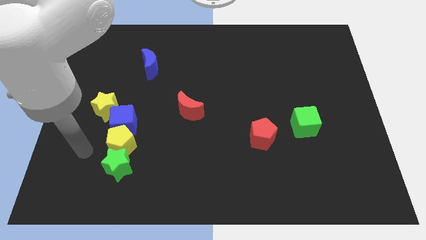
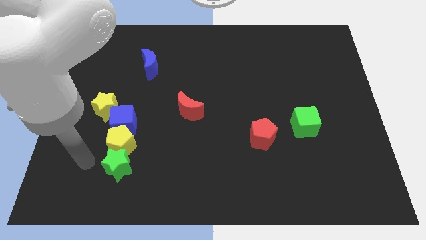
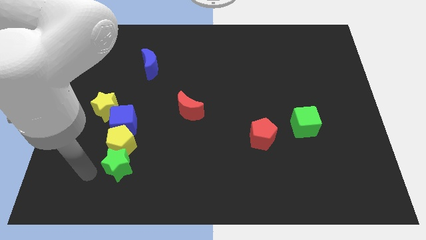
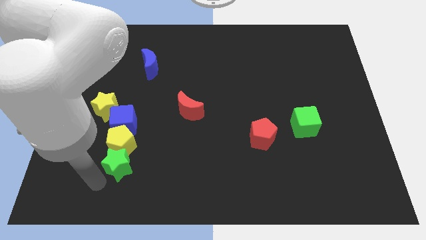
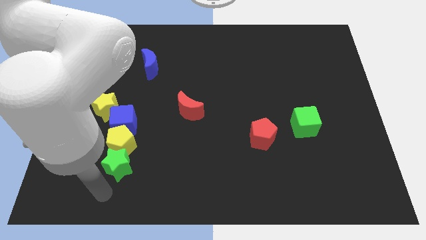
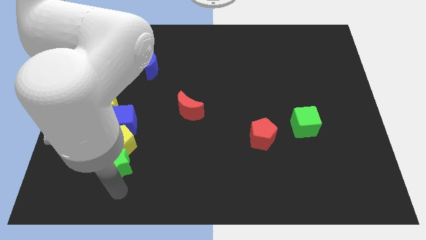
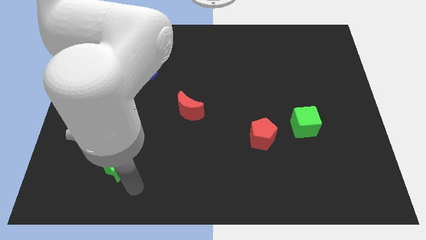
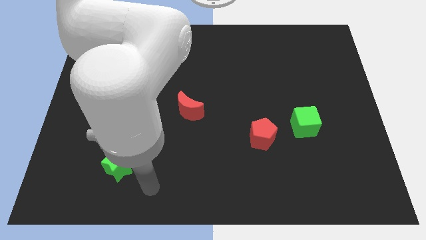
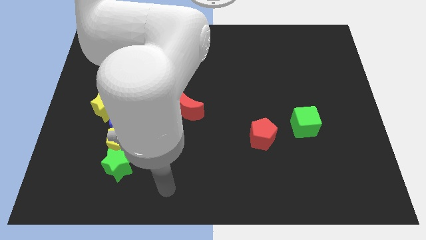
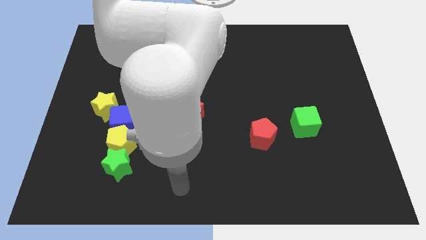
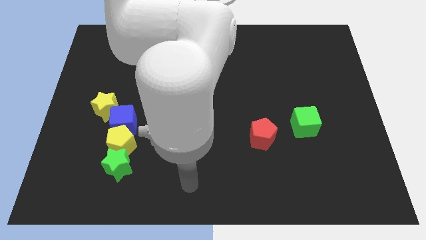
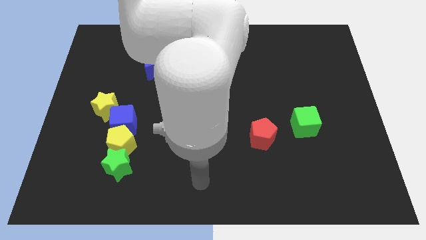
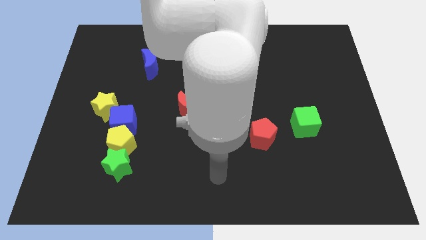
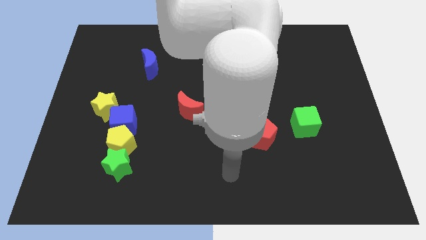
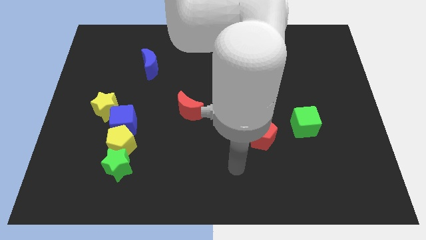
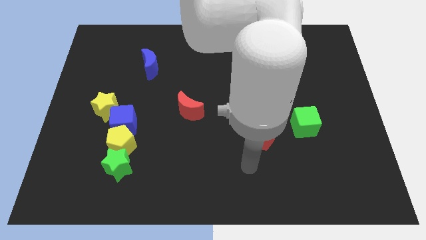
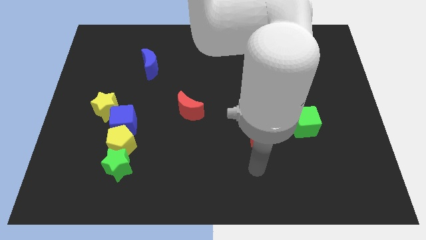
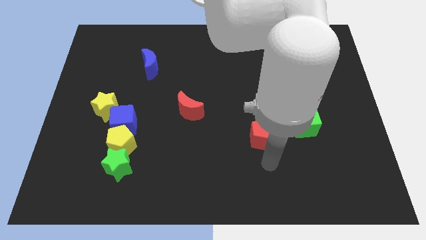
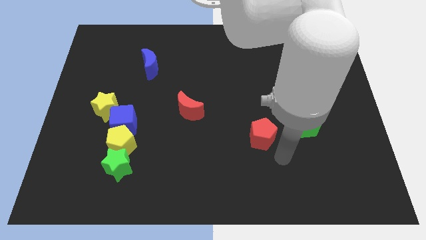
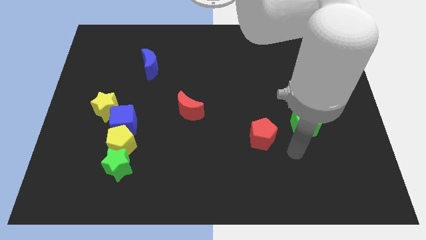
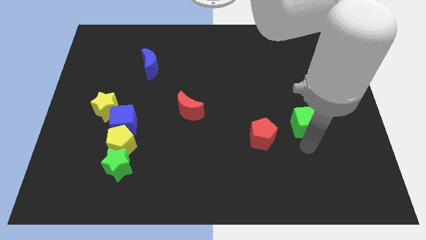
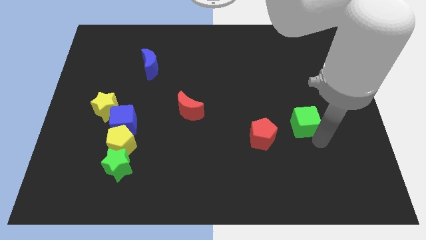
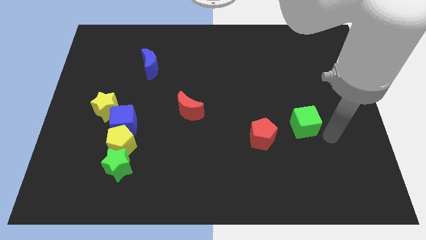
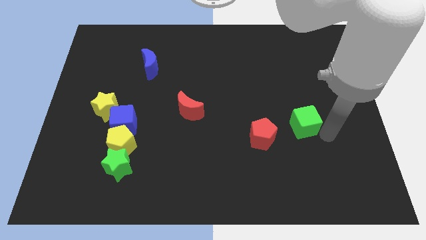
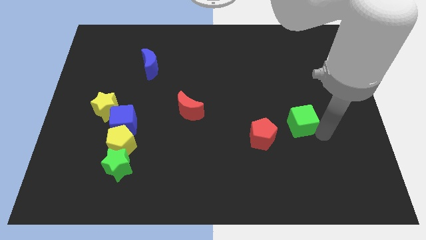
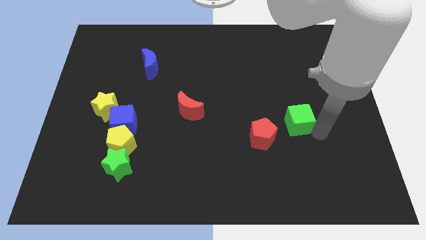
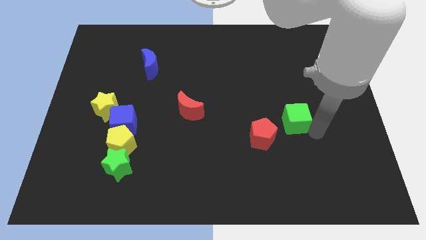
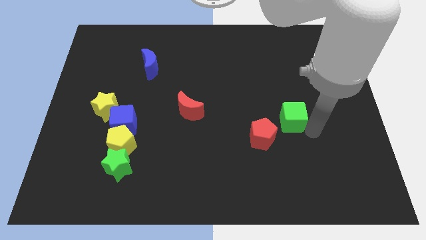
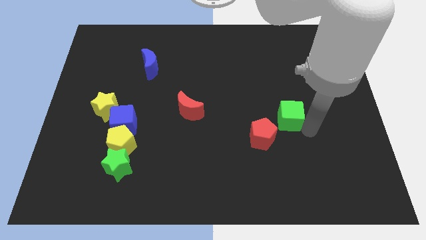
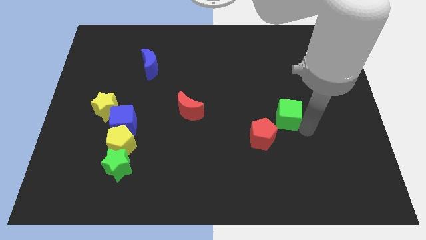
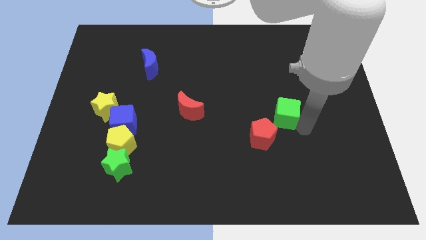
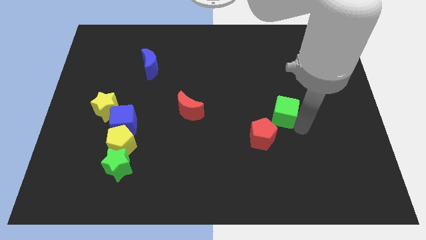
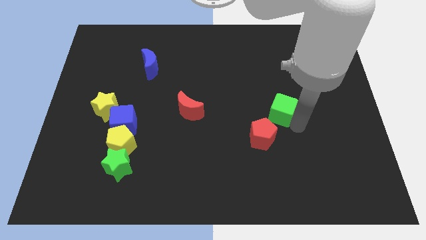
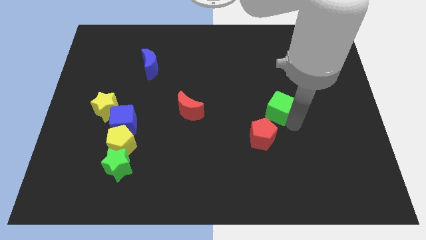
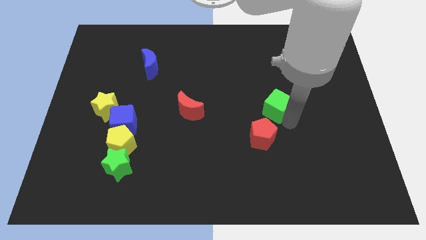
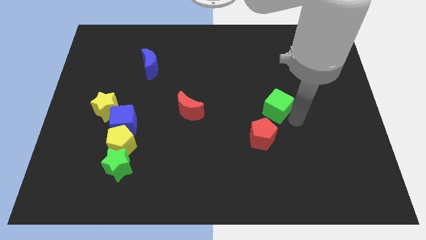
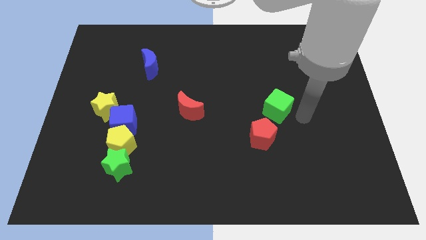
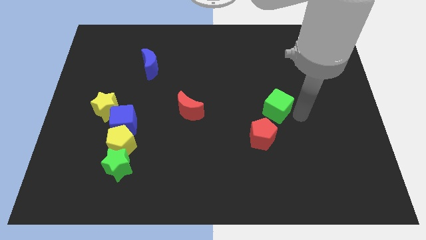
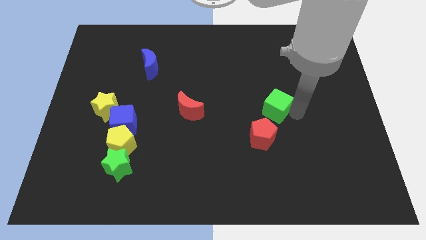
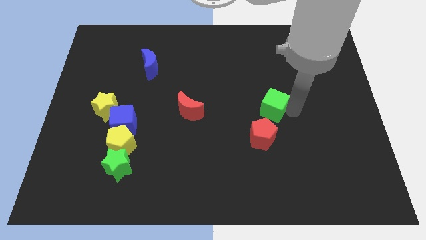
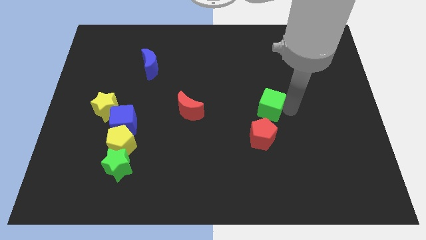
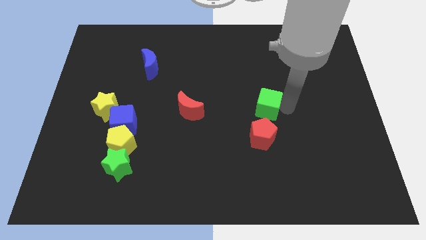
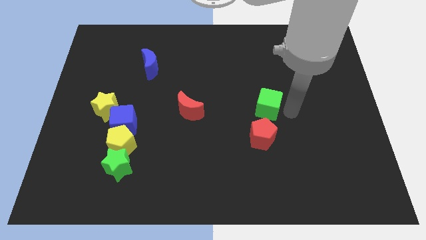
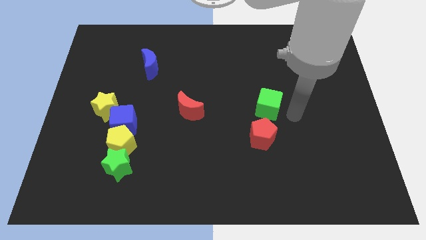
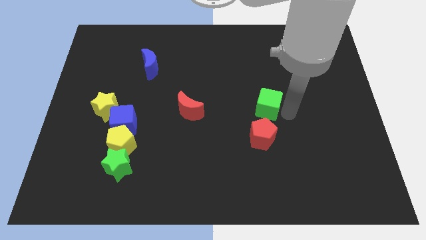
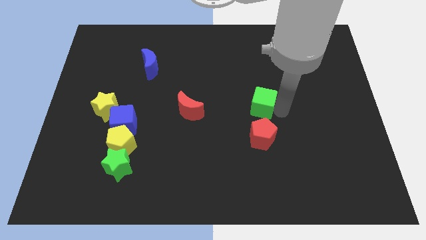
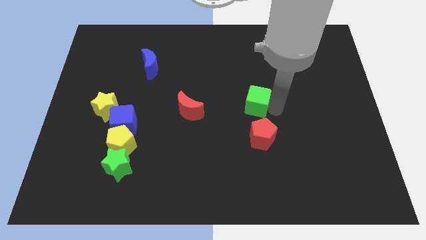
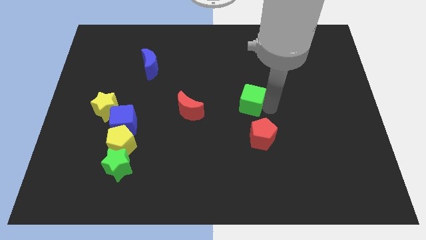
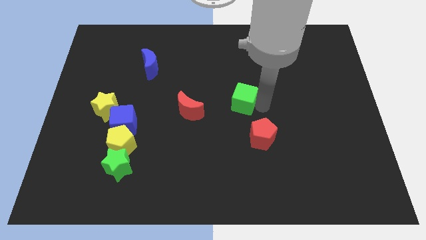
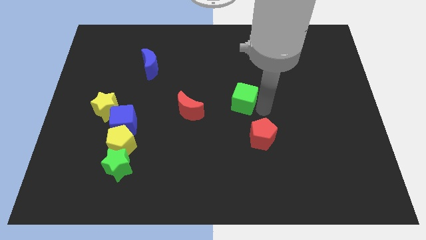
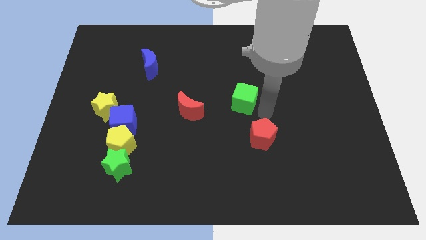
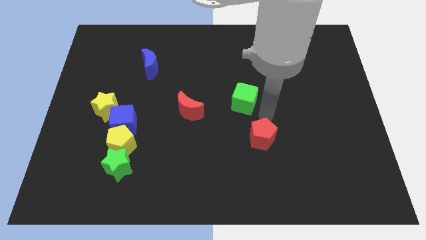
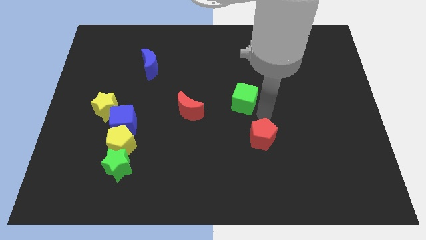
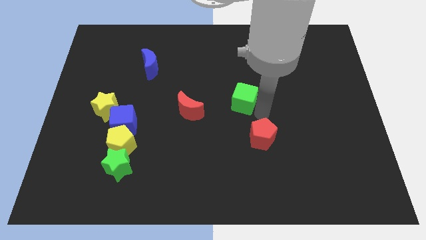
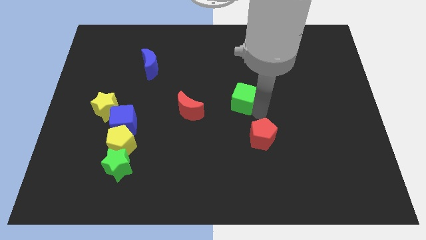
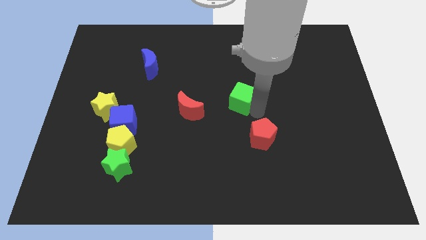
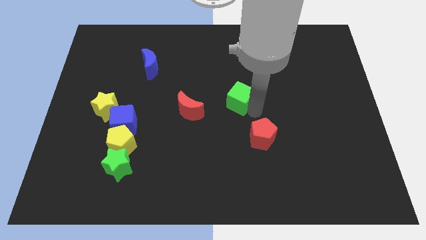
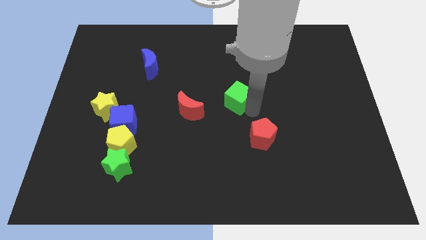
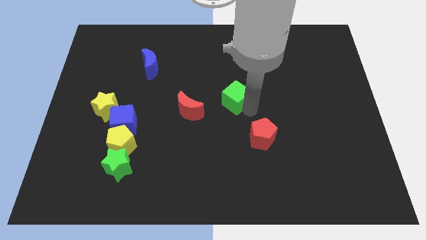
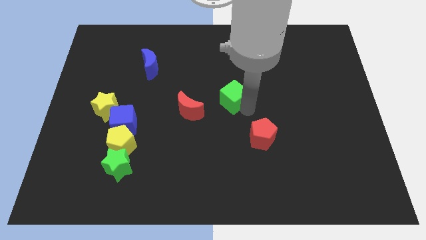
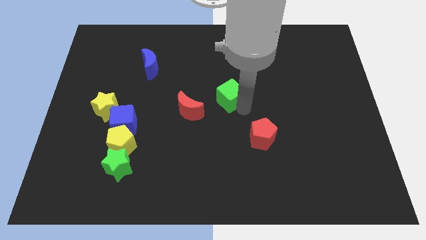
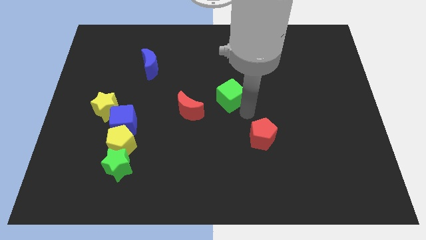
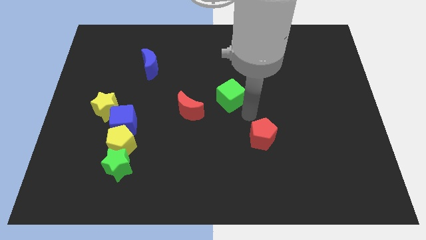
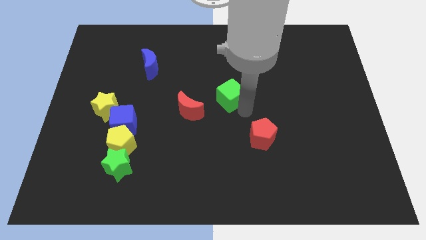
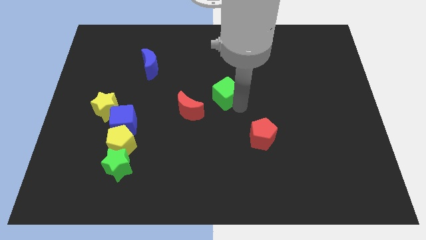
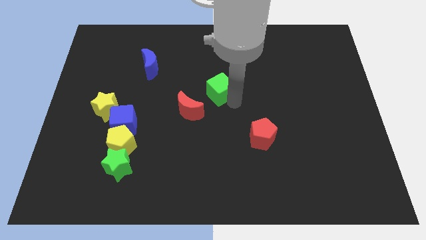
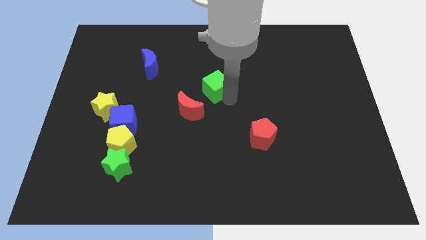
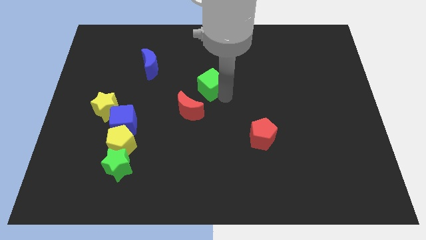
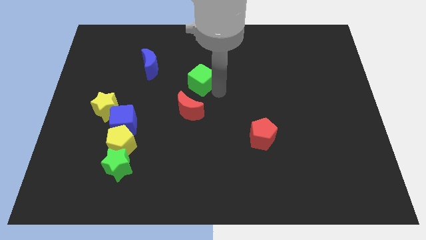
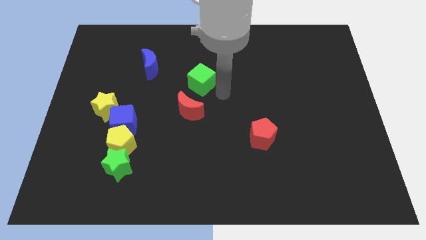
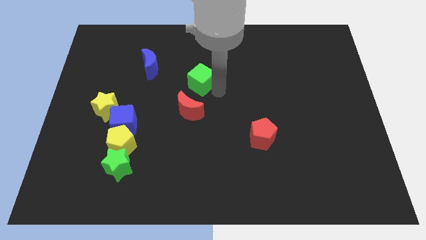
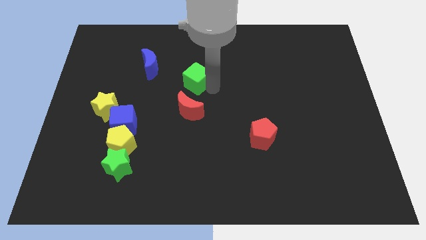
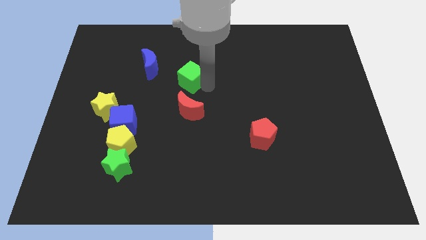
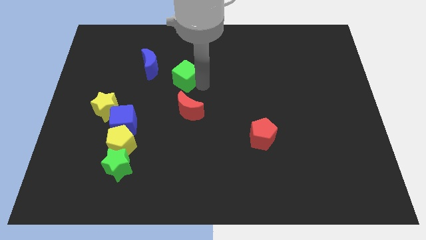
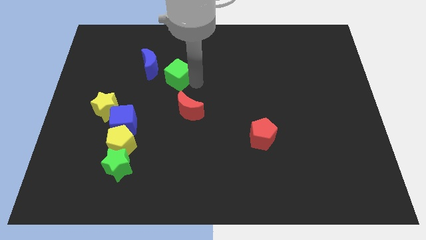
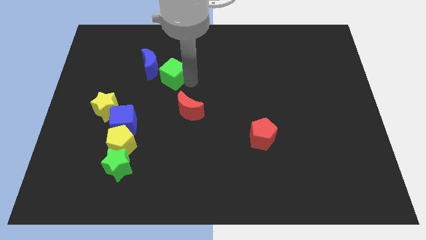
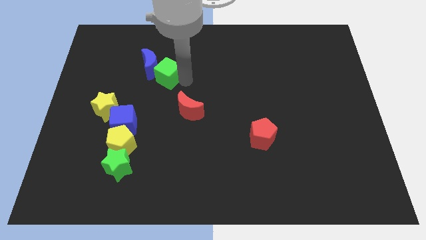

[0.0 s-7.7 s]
push the green cube next to the blue moon
